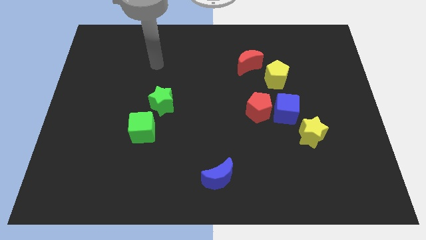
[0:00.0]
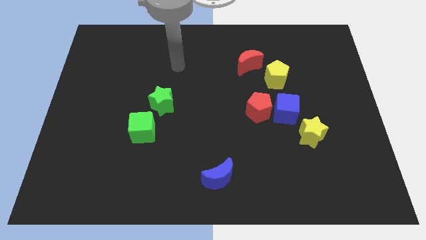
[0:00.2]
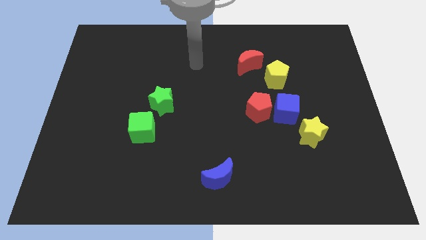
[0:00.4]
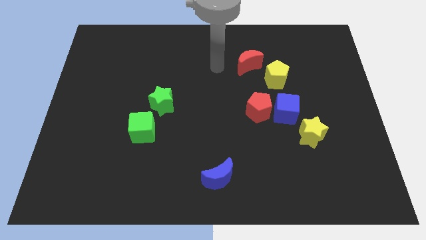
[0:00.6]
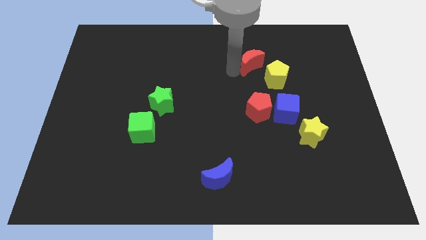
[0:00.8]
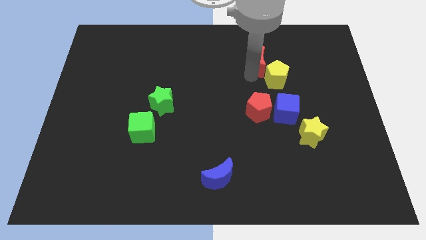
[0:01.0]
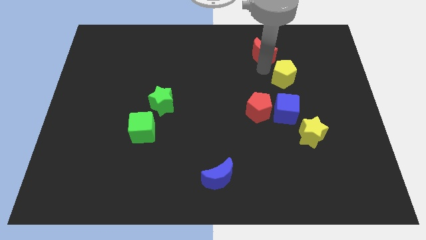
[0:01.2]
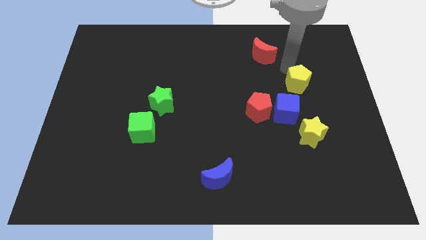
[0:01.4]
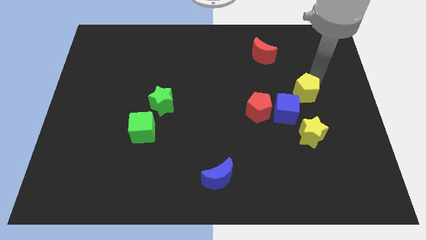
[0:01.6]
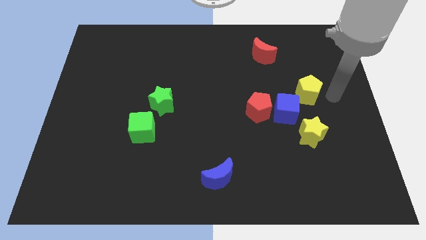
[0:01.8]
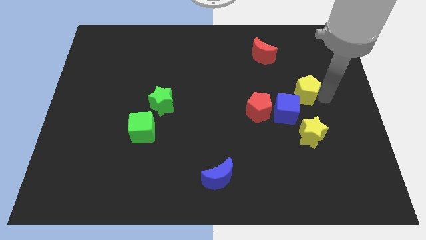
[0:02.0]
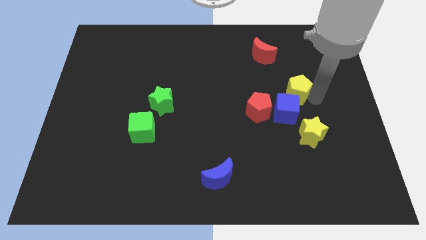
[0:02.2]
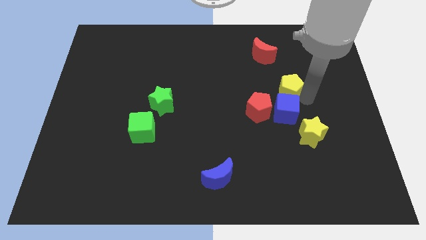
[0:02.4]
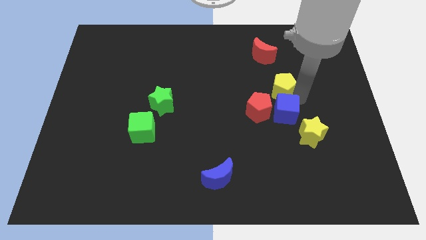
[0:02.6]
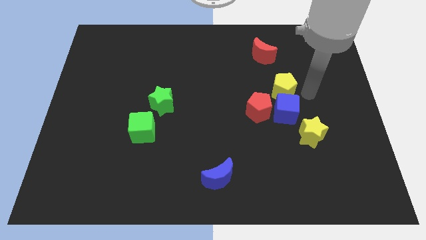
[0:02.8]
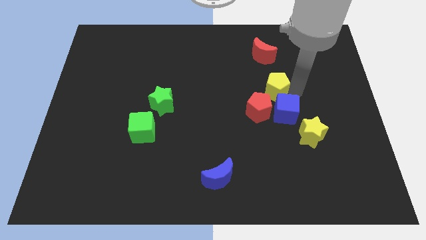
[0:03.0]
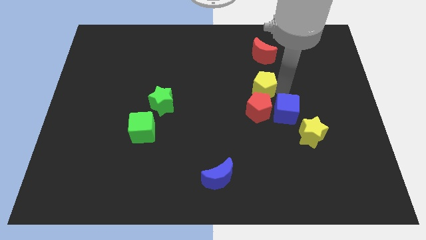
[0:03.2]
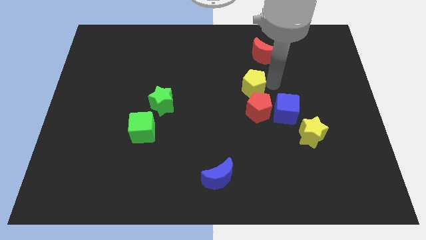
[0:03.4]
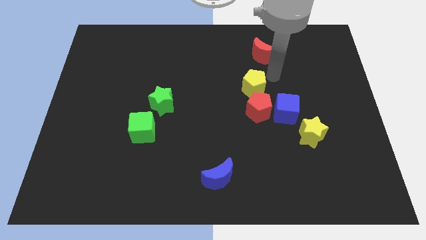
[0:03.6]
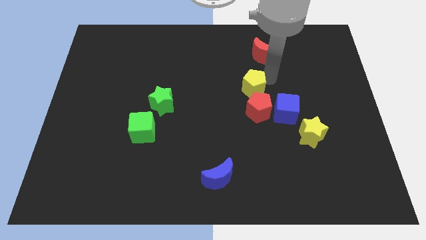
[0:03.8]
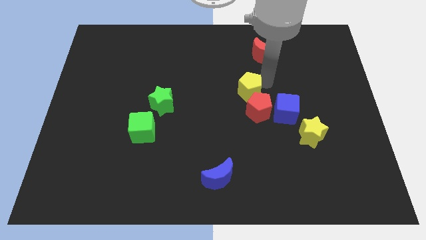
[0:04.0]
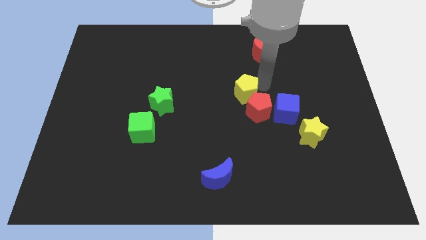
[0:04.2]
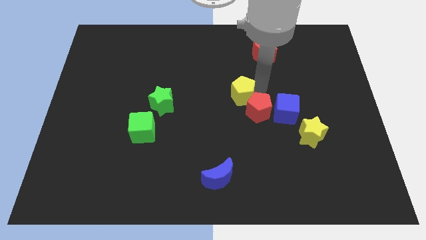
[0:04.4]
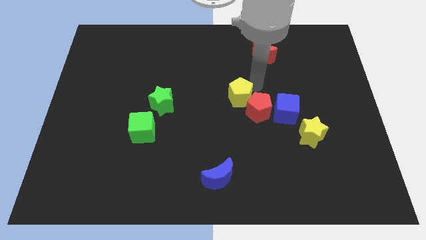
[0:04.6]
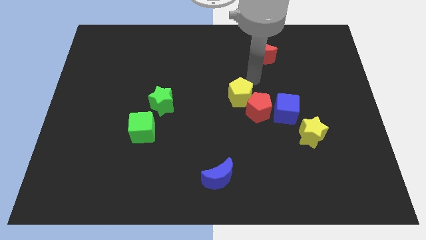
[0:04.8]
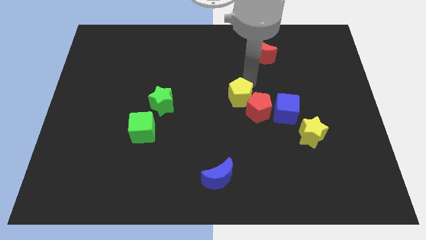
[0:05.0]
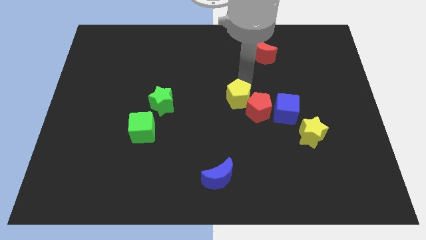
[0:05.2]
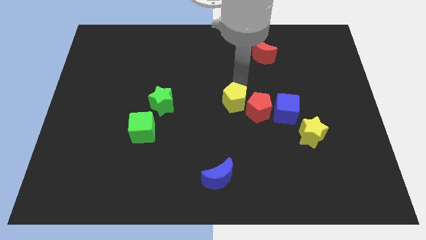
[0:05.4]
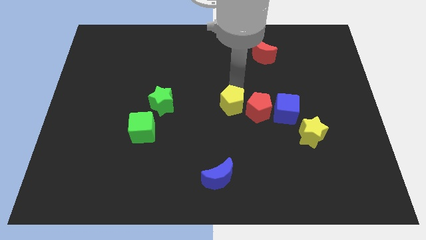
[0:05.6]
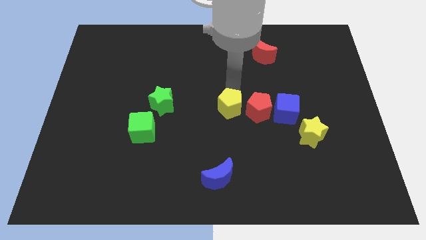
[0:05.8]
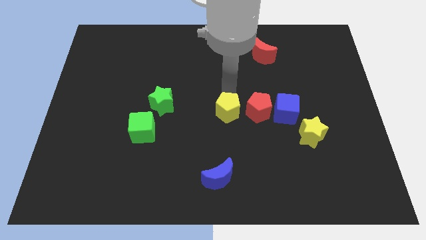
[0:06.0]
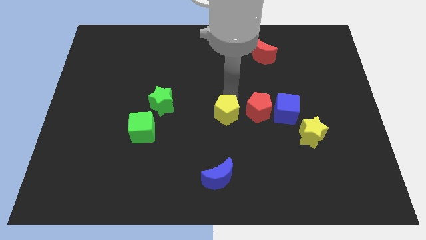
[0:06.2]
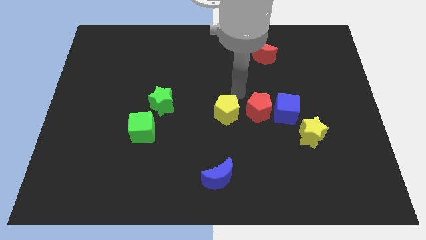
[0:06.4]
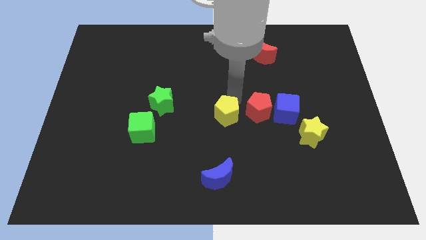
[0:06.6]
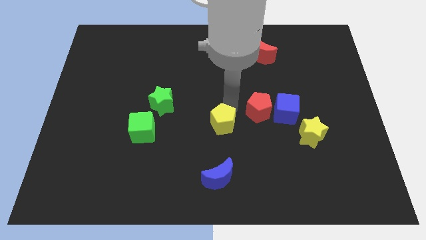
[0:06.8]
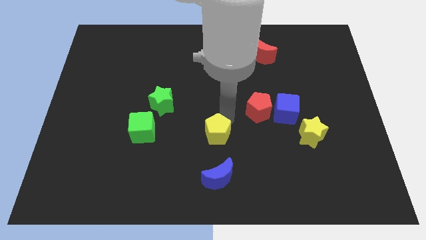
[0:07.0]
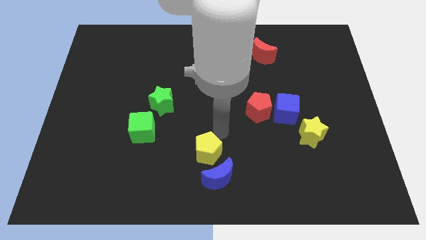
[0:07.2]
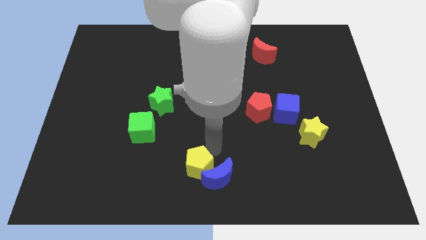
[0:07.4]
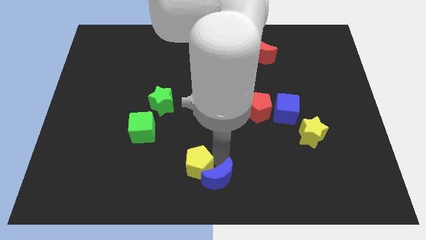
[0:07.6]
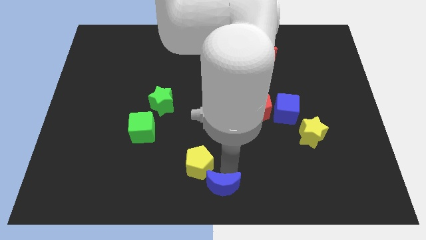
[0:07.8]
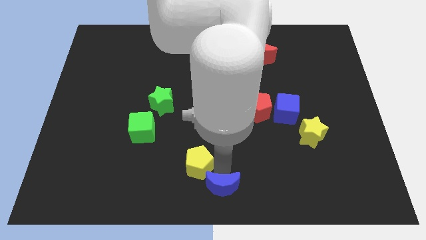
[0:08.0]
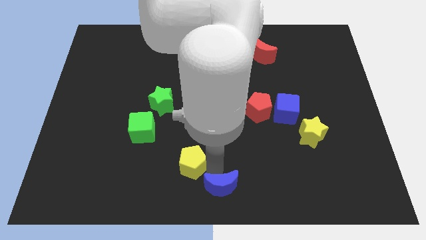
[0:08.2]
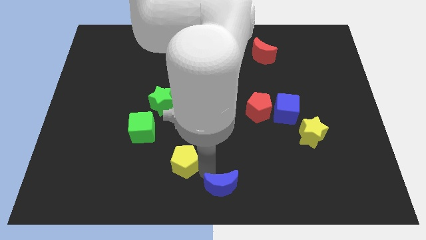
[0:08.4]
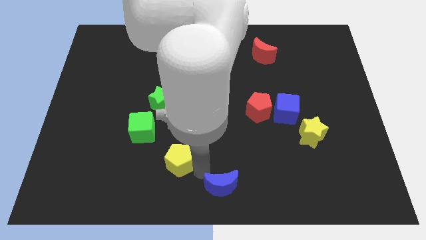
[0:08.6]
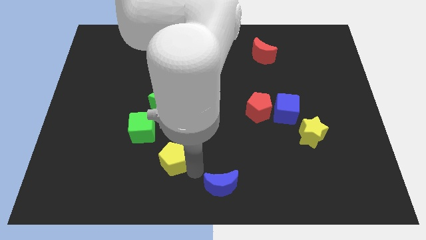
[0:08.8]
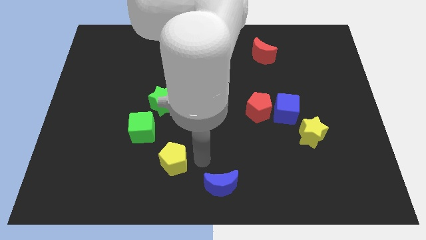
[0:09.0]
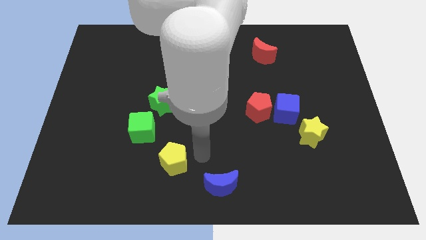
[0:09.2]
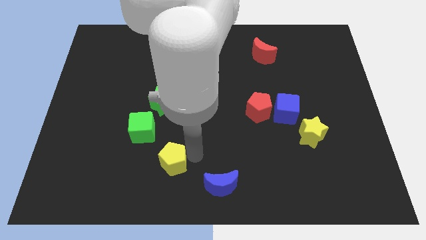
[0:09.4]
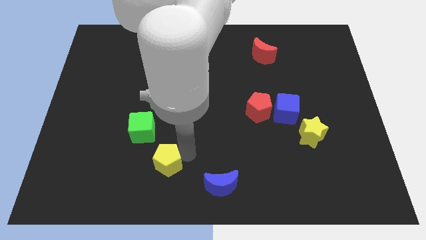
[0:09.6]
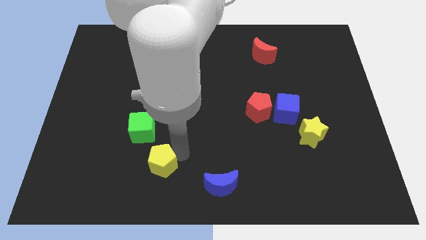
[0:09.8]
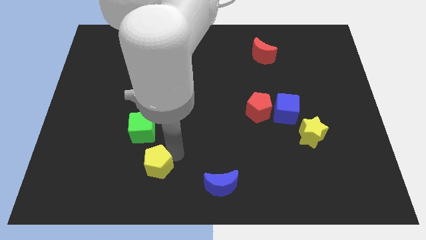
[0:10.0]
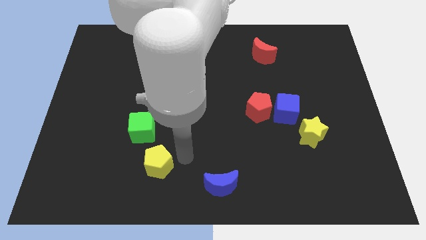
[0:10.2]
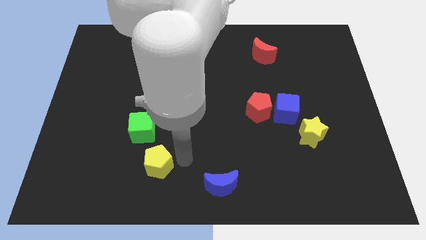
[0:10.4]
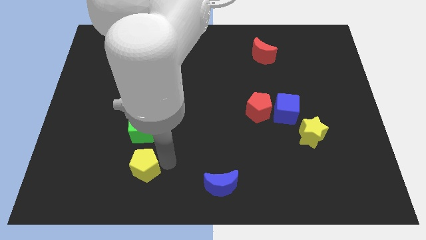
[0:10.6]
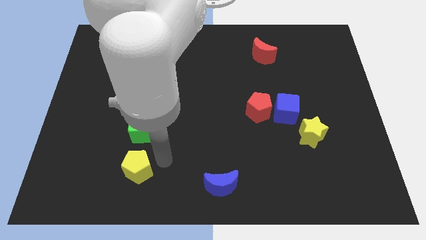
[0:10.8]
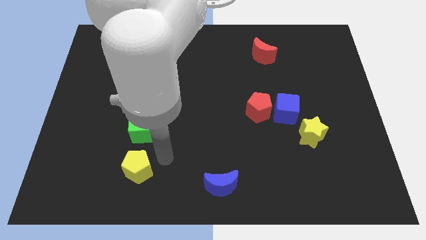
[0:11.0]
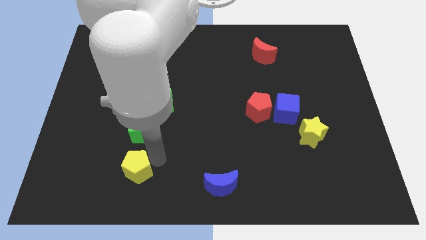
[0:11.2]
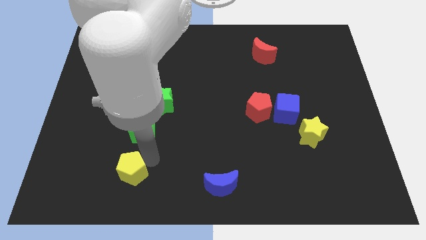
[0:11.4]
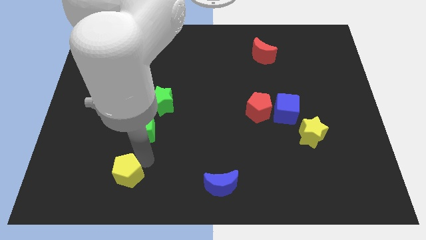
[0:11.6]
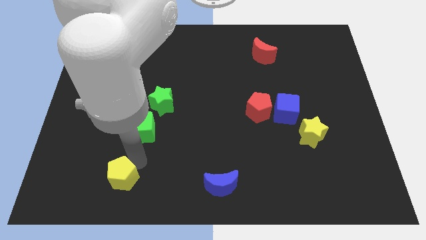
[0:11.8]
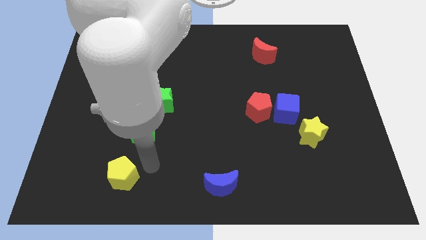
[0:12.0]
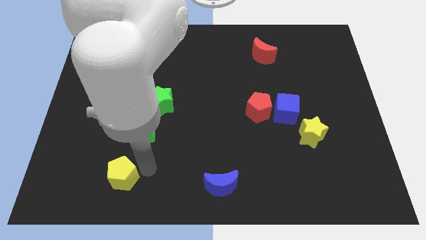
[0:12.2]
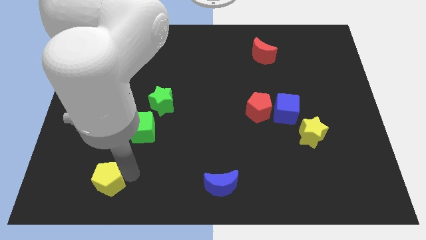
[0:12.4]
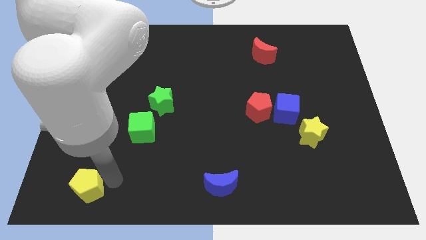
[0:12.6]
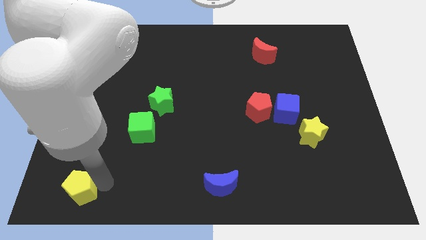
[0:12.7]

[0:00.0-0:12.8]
slide the yellow pentagon to the lower left corner

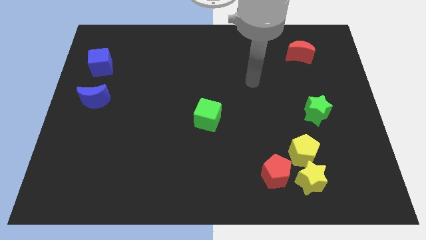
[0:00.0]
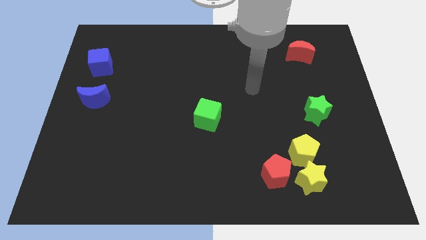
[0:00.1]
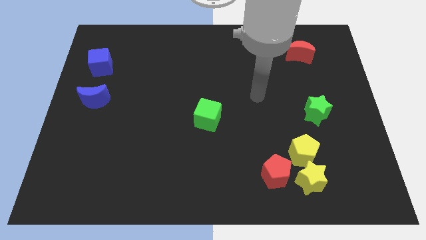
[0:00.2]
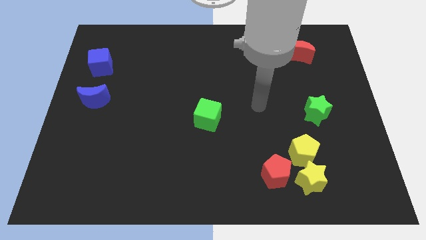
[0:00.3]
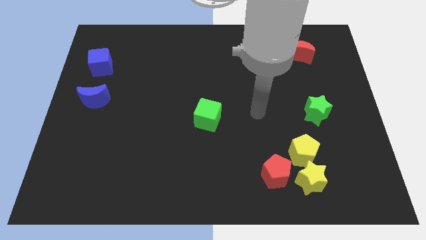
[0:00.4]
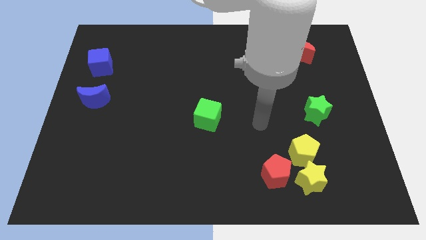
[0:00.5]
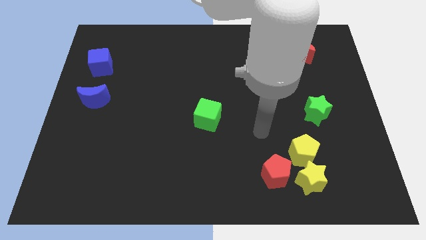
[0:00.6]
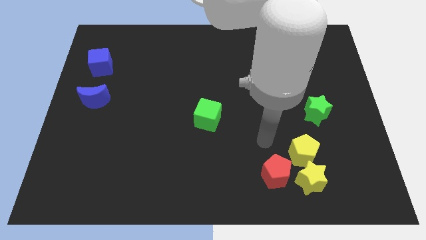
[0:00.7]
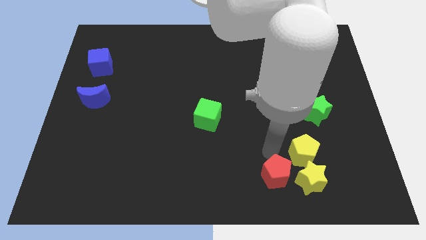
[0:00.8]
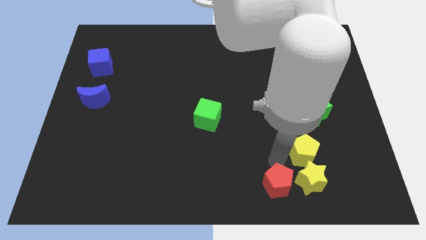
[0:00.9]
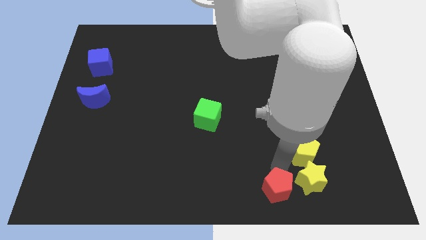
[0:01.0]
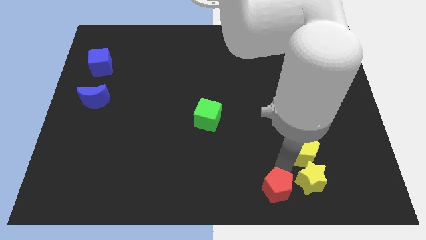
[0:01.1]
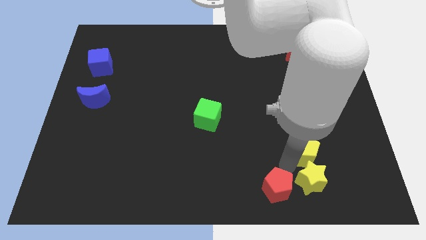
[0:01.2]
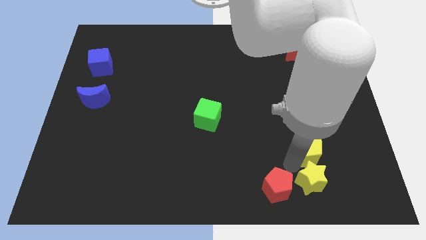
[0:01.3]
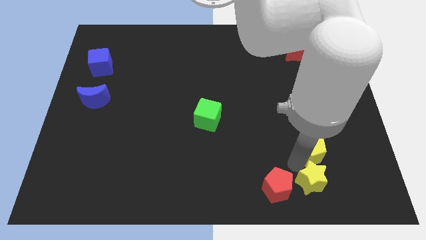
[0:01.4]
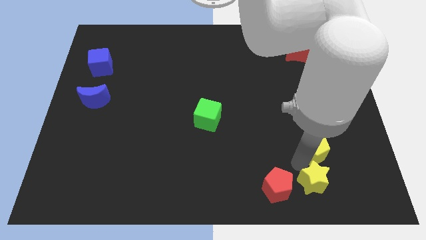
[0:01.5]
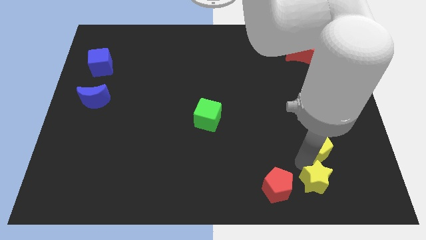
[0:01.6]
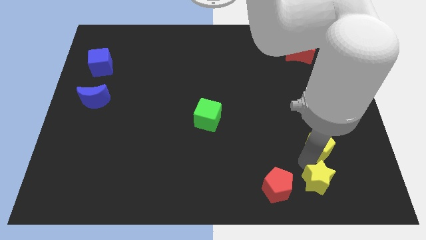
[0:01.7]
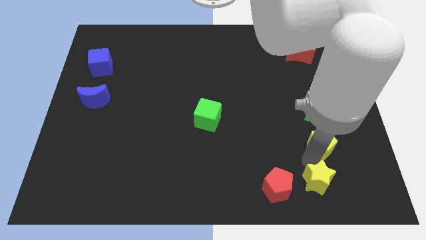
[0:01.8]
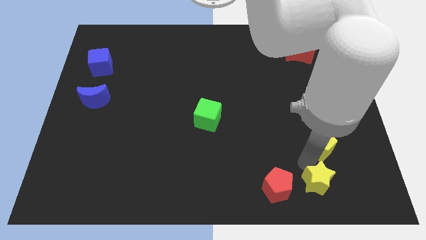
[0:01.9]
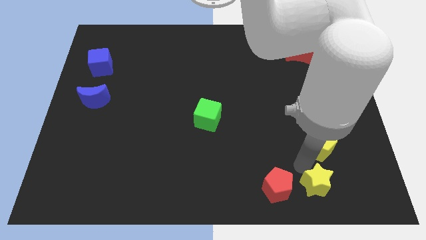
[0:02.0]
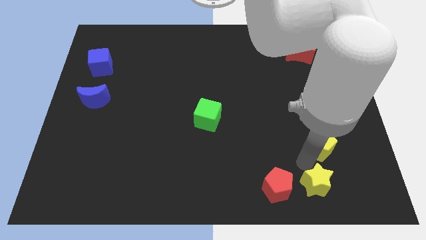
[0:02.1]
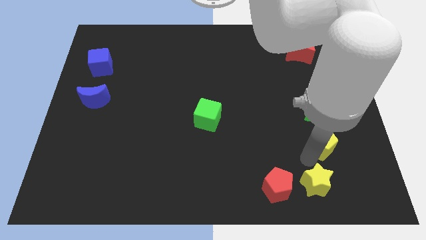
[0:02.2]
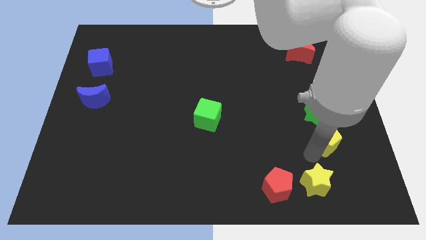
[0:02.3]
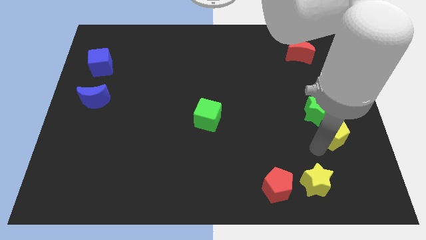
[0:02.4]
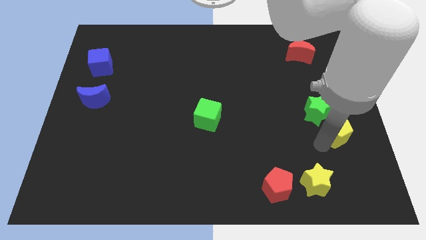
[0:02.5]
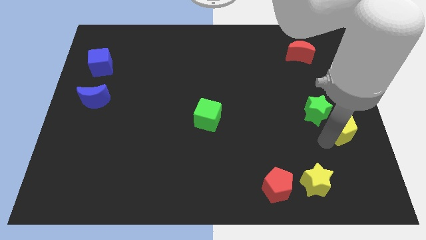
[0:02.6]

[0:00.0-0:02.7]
push the yellow pentagon to the right side of the board
